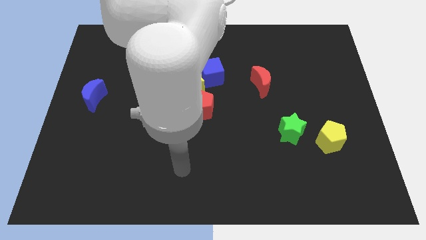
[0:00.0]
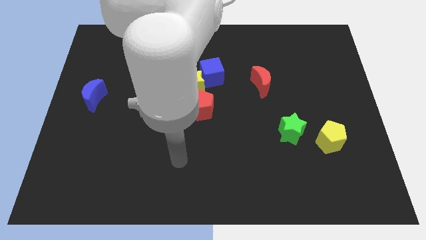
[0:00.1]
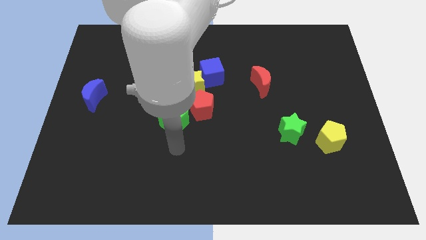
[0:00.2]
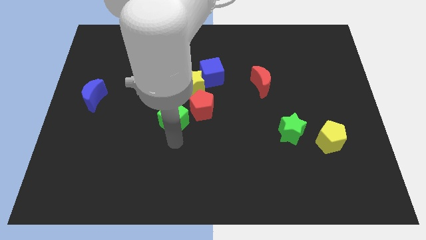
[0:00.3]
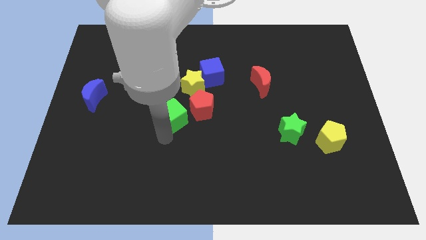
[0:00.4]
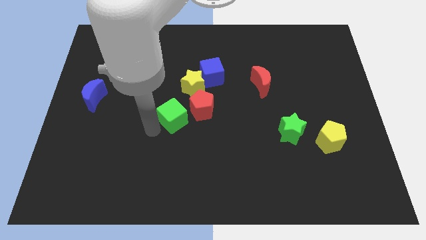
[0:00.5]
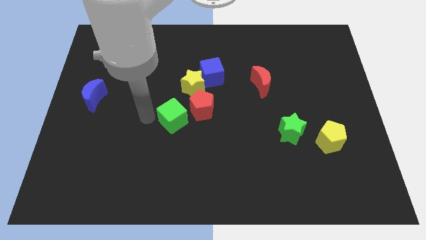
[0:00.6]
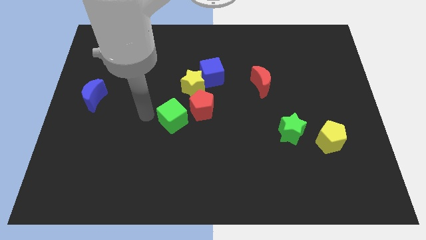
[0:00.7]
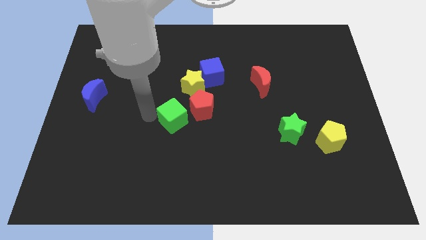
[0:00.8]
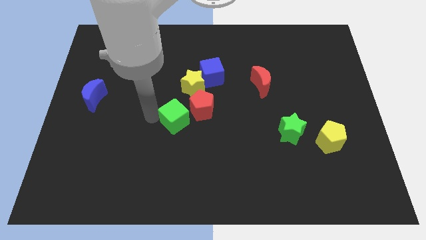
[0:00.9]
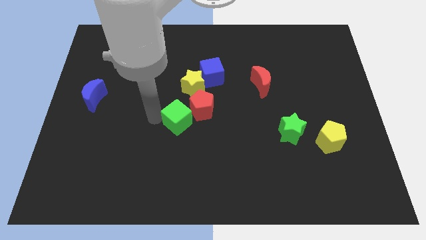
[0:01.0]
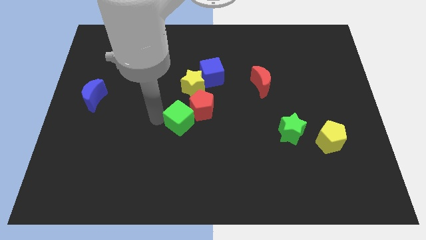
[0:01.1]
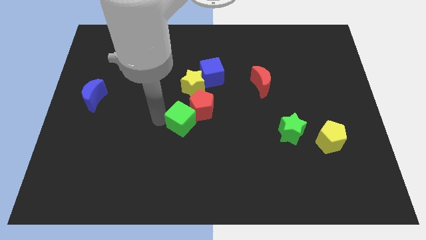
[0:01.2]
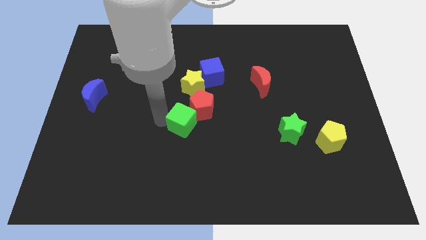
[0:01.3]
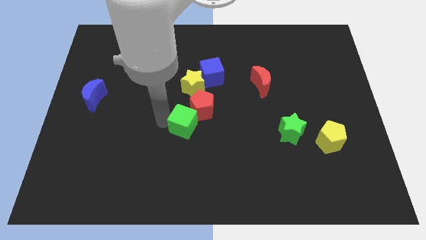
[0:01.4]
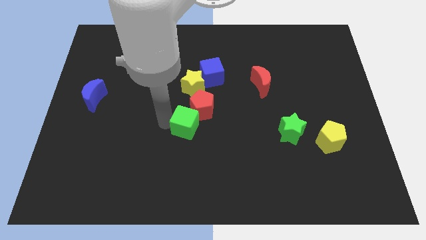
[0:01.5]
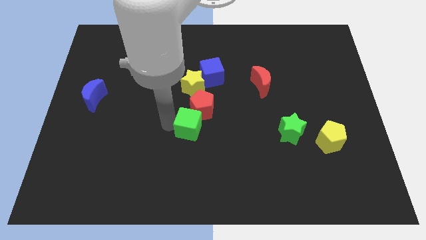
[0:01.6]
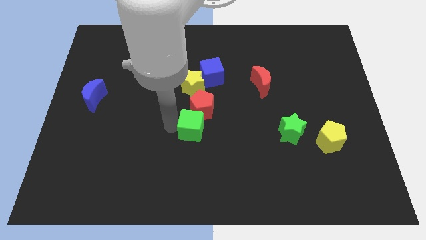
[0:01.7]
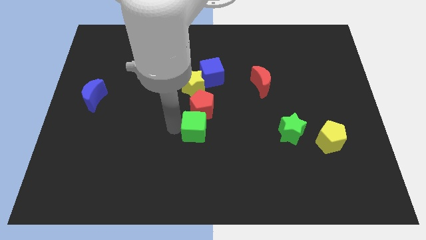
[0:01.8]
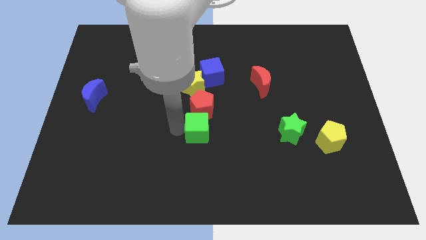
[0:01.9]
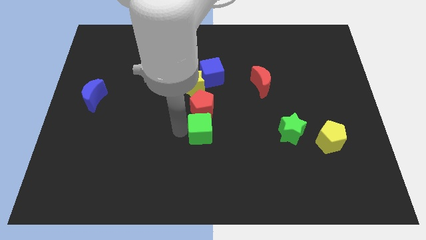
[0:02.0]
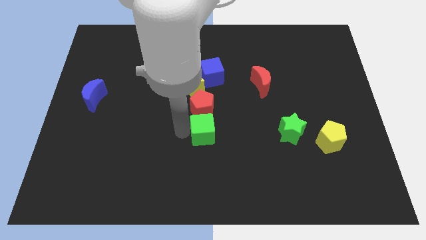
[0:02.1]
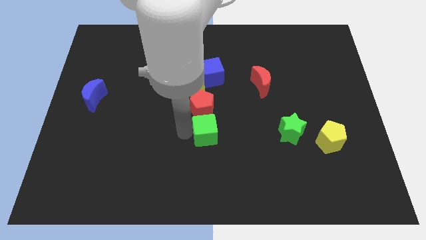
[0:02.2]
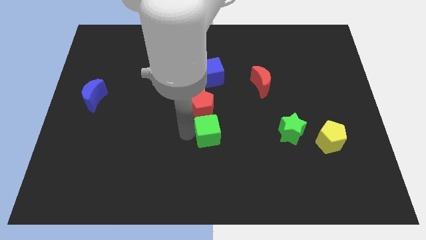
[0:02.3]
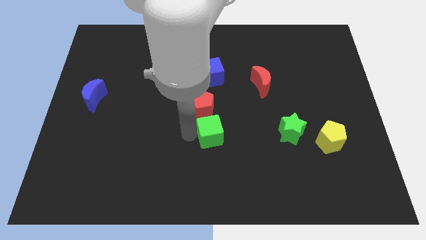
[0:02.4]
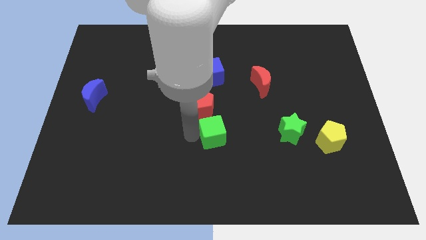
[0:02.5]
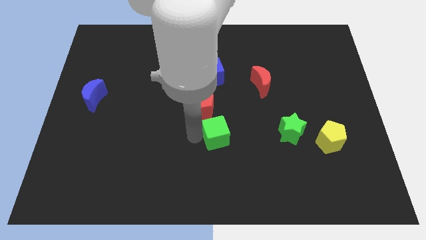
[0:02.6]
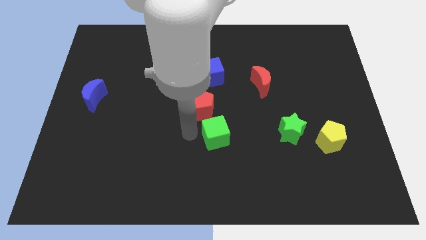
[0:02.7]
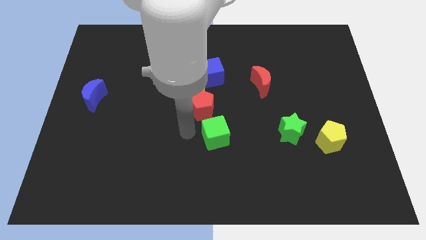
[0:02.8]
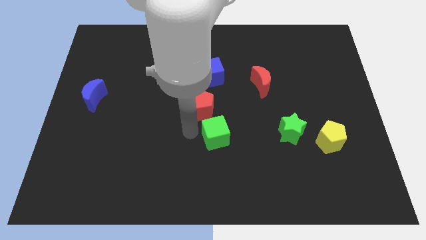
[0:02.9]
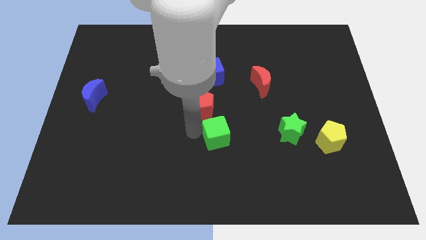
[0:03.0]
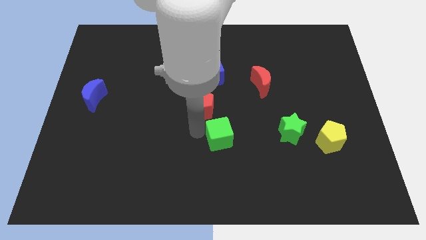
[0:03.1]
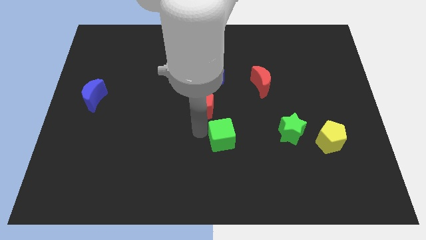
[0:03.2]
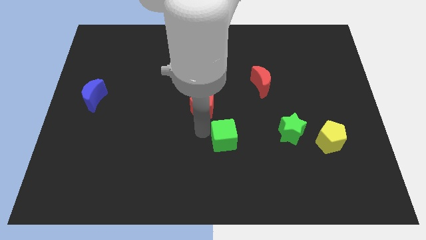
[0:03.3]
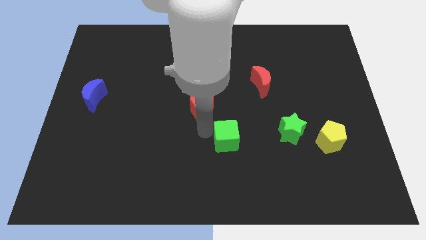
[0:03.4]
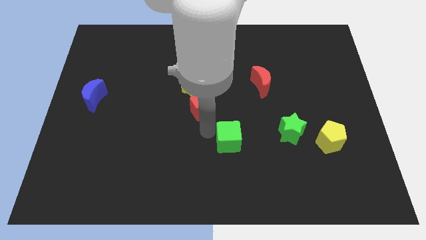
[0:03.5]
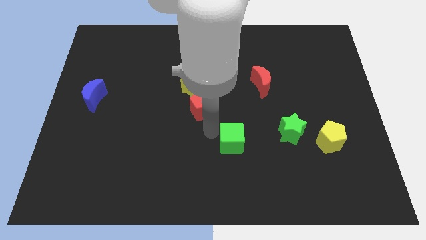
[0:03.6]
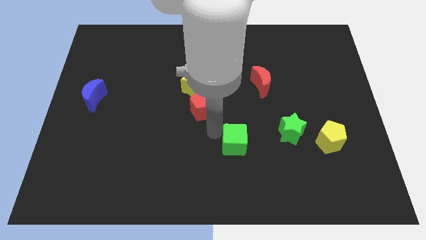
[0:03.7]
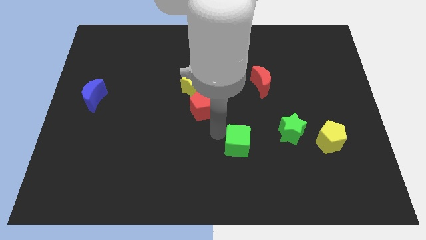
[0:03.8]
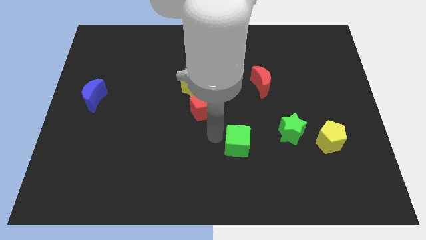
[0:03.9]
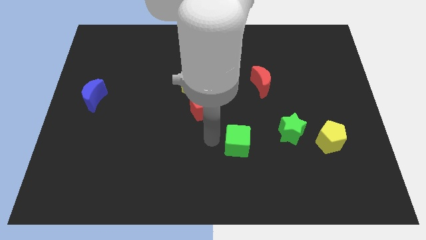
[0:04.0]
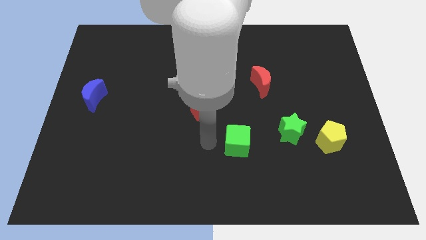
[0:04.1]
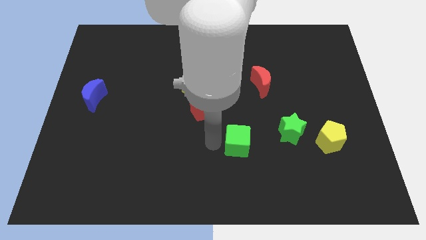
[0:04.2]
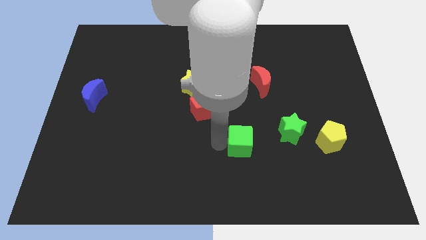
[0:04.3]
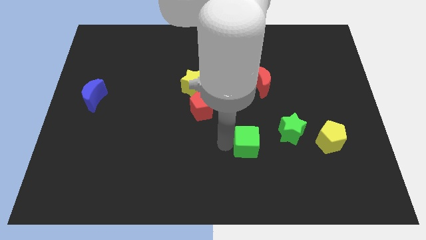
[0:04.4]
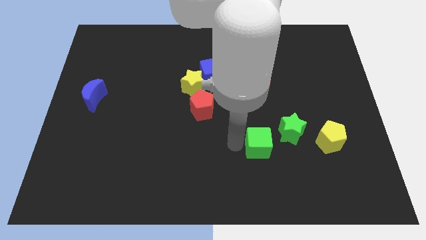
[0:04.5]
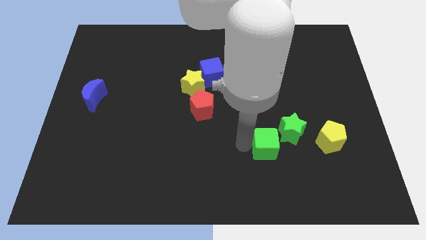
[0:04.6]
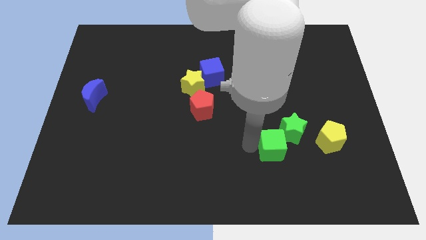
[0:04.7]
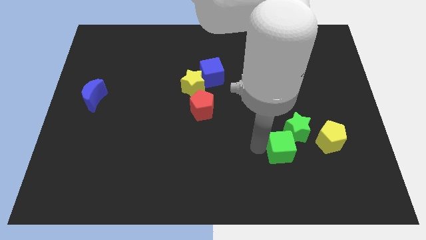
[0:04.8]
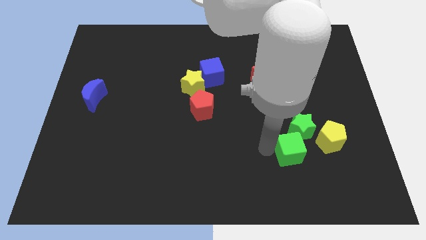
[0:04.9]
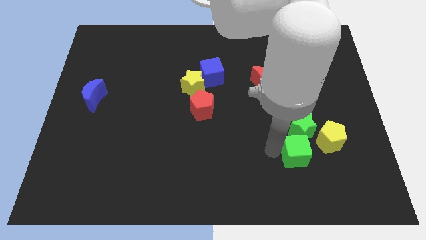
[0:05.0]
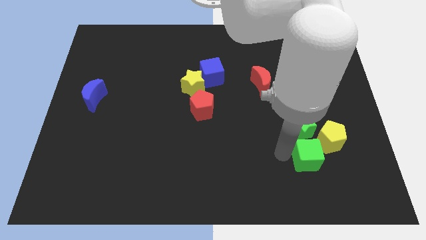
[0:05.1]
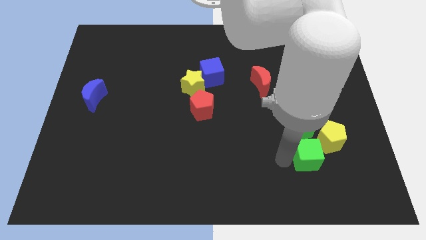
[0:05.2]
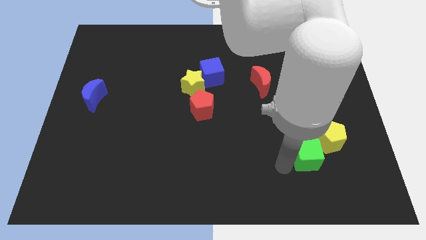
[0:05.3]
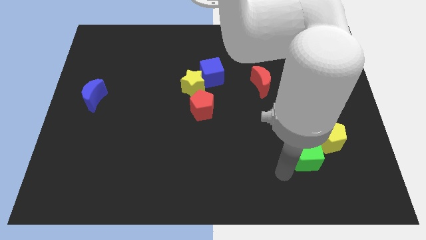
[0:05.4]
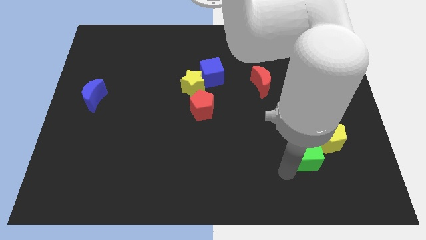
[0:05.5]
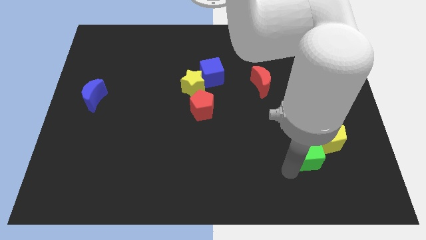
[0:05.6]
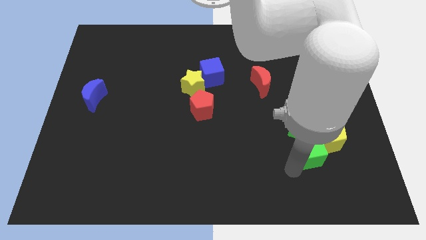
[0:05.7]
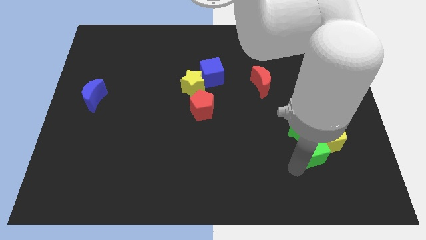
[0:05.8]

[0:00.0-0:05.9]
slide the green cube towards the yellow pentagon

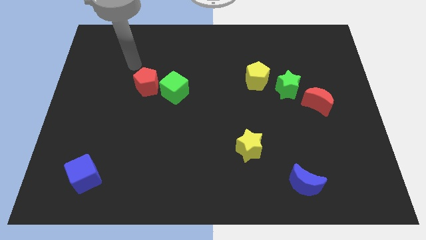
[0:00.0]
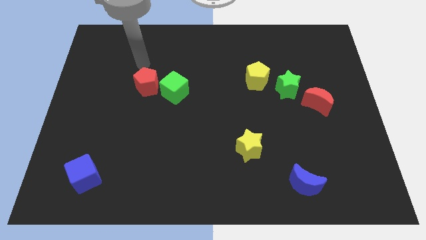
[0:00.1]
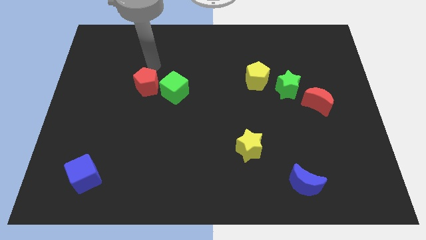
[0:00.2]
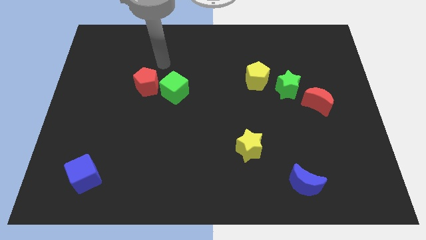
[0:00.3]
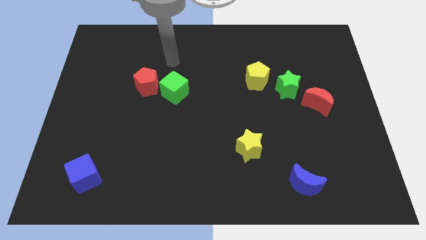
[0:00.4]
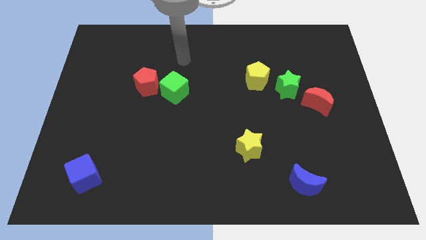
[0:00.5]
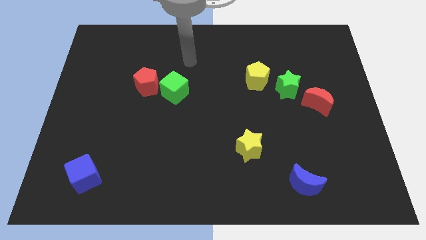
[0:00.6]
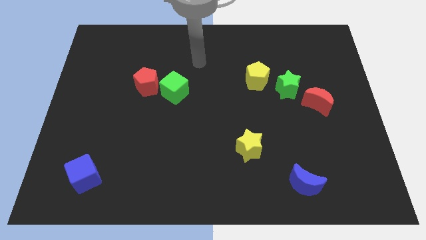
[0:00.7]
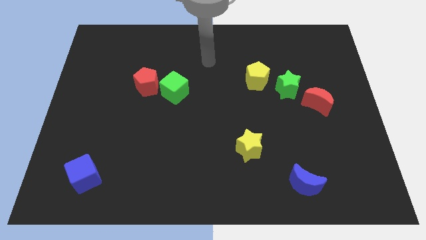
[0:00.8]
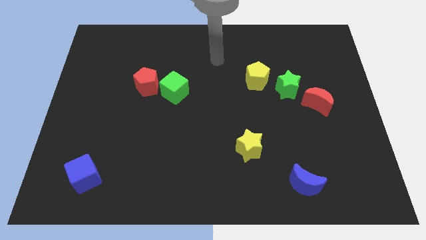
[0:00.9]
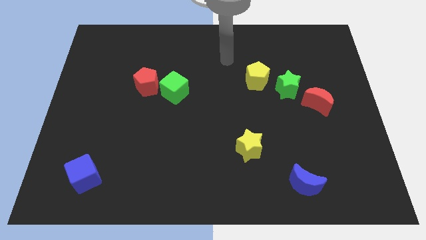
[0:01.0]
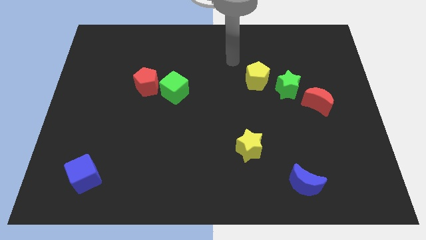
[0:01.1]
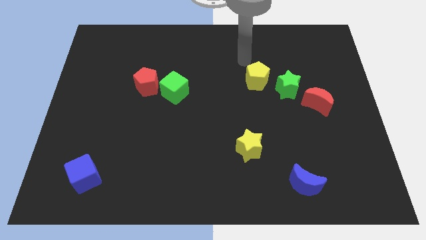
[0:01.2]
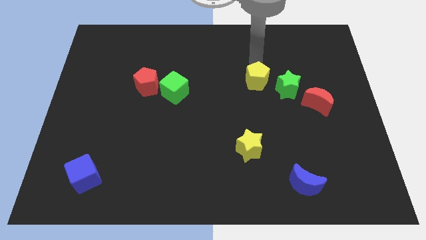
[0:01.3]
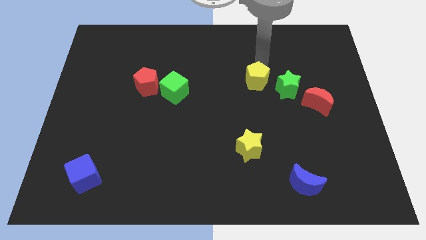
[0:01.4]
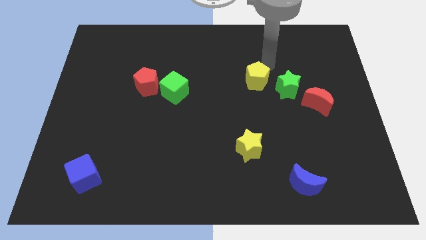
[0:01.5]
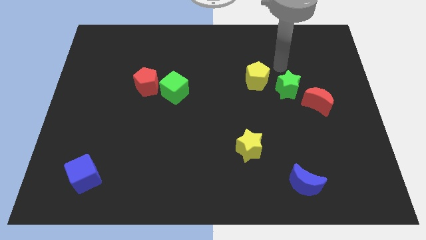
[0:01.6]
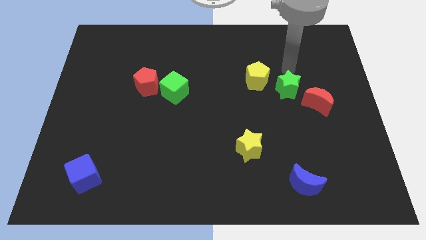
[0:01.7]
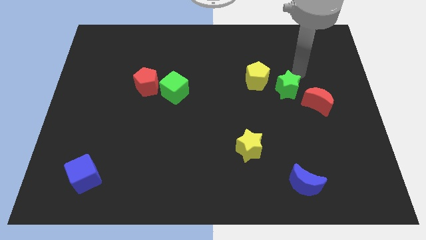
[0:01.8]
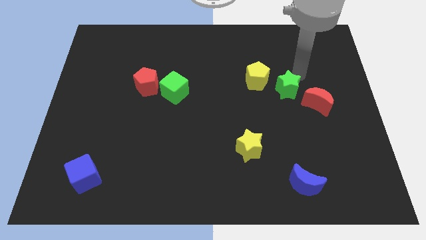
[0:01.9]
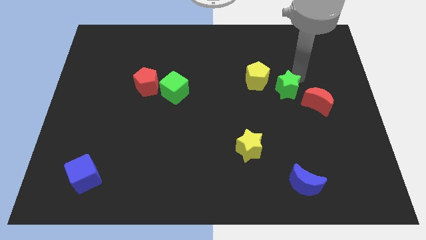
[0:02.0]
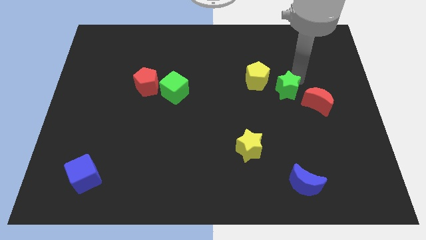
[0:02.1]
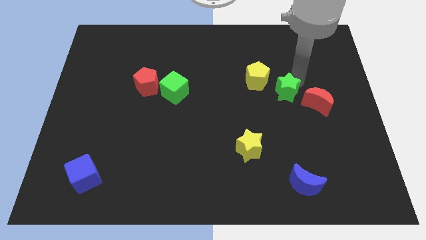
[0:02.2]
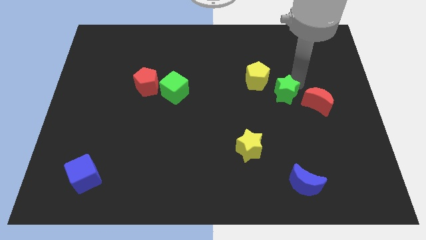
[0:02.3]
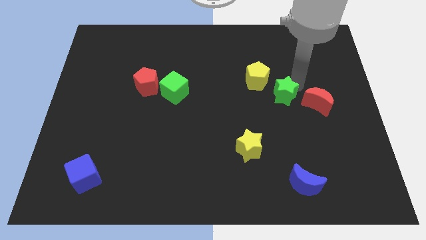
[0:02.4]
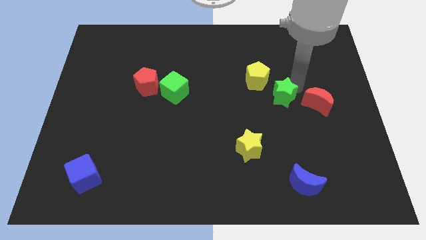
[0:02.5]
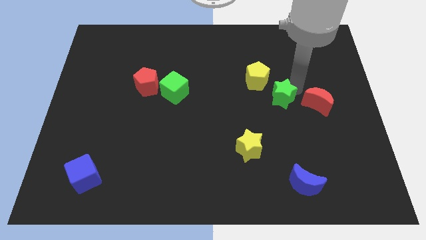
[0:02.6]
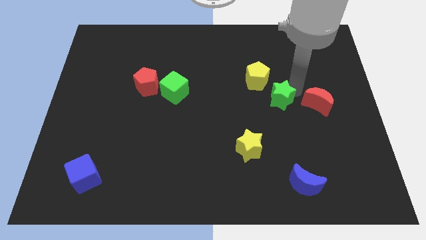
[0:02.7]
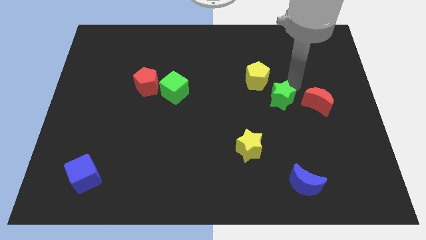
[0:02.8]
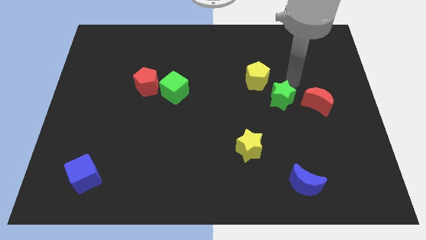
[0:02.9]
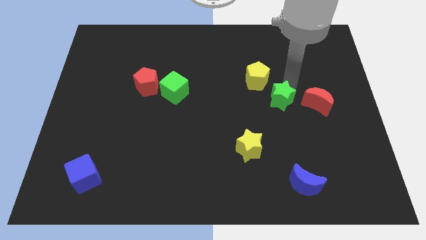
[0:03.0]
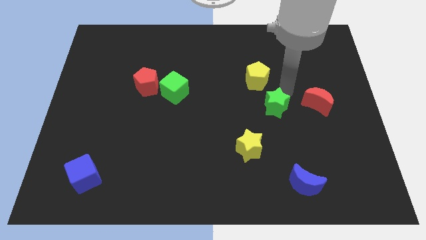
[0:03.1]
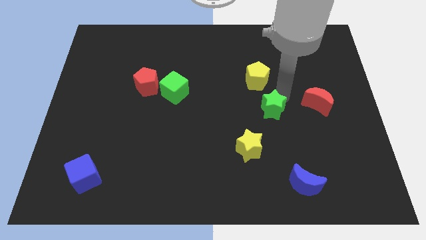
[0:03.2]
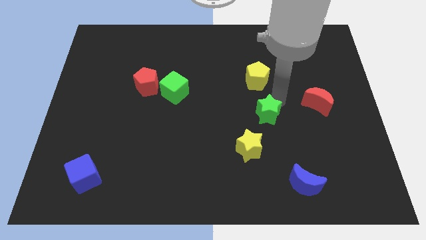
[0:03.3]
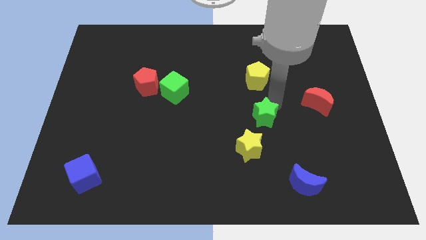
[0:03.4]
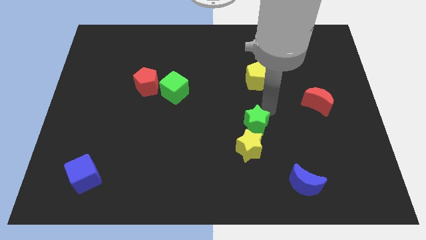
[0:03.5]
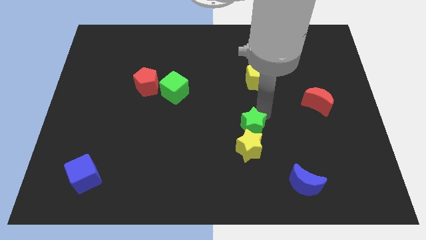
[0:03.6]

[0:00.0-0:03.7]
push the green star to the yellow star
